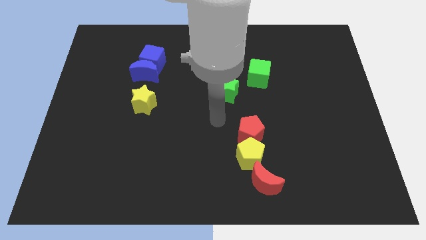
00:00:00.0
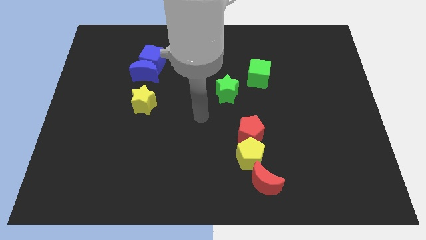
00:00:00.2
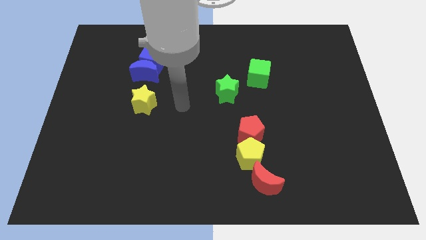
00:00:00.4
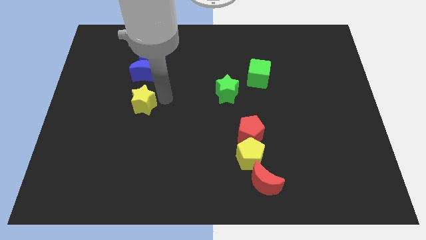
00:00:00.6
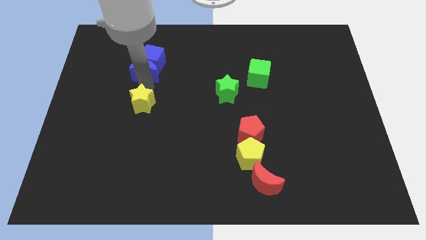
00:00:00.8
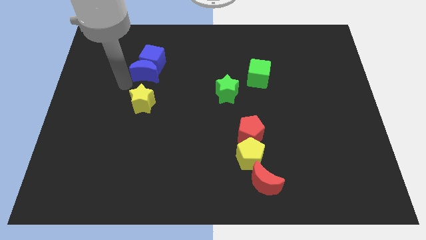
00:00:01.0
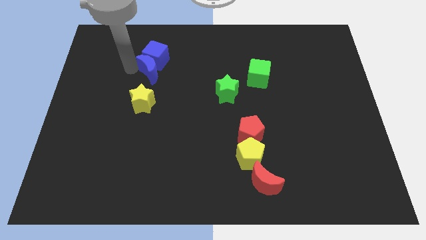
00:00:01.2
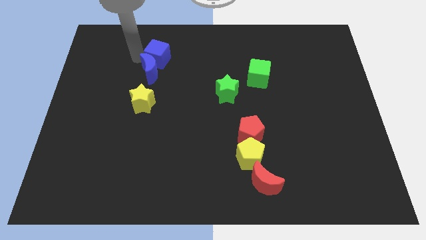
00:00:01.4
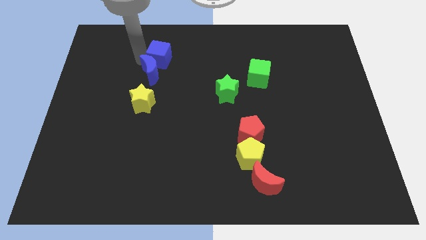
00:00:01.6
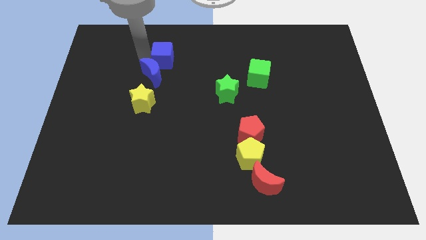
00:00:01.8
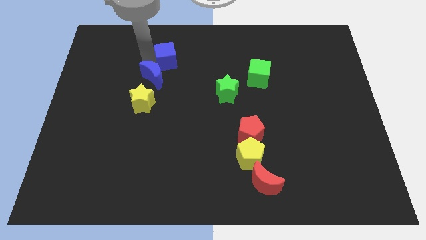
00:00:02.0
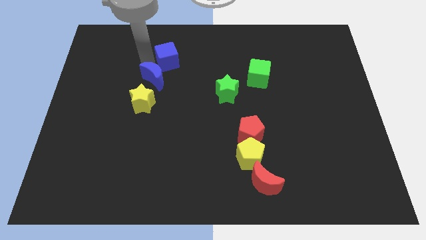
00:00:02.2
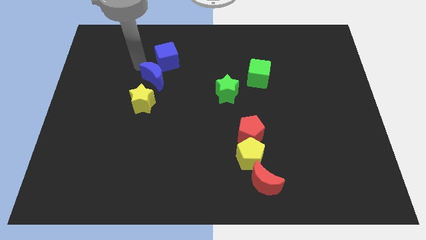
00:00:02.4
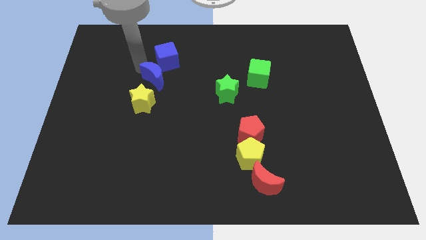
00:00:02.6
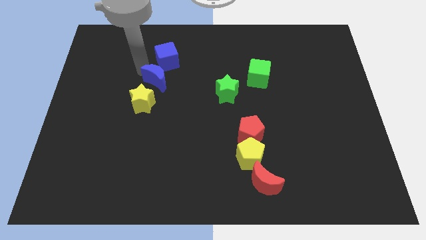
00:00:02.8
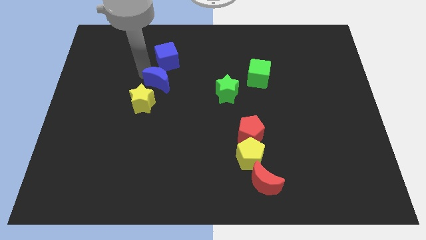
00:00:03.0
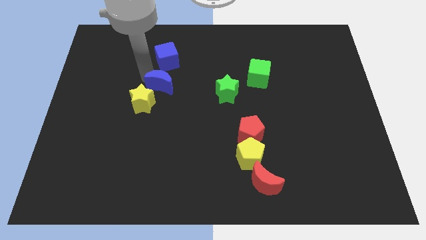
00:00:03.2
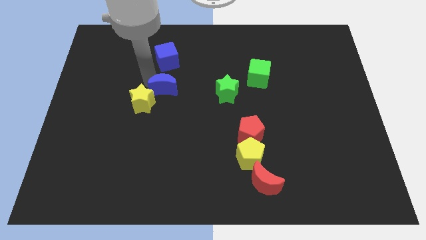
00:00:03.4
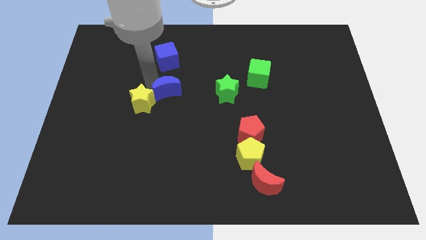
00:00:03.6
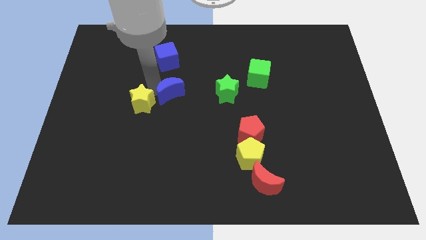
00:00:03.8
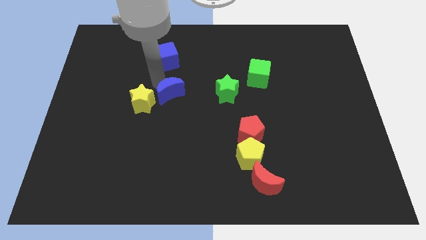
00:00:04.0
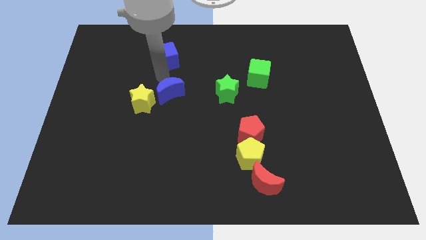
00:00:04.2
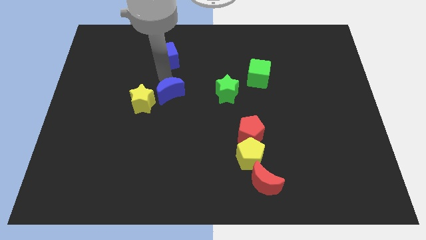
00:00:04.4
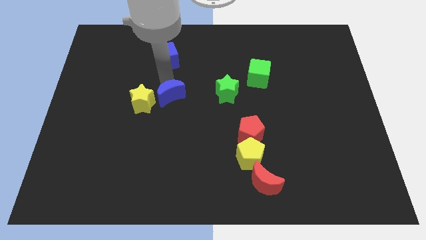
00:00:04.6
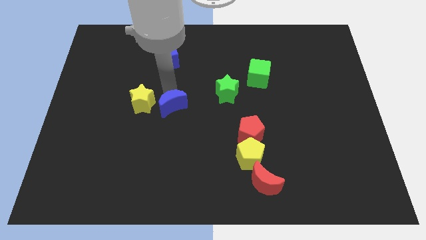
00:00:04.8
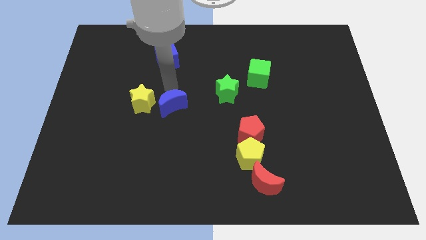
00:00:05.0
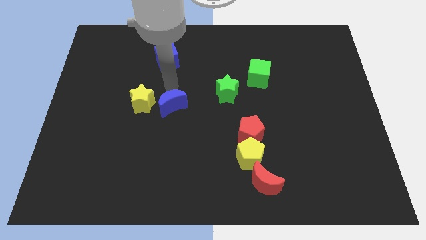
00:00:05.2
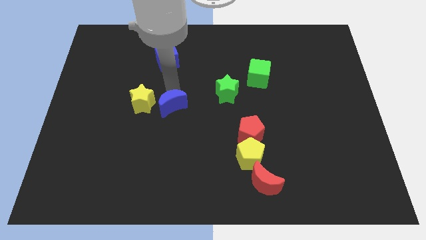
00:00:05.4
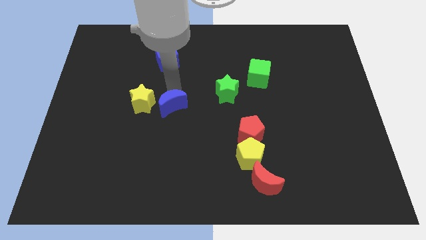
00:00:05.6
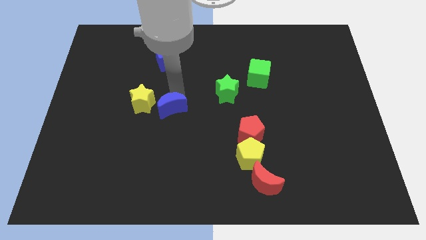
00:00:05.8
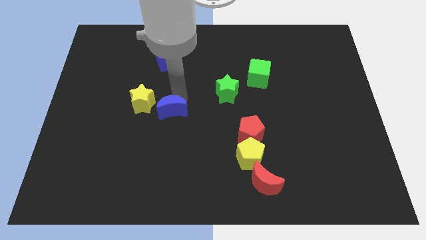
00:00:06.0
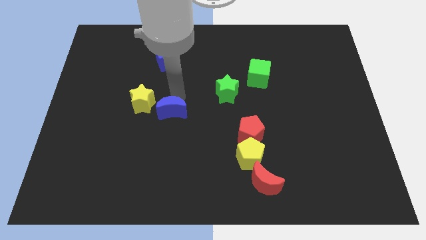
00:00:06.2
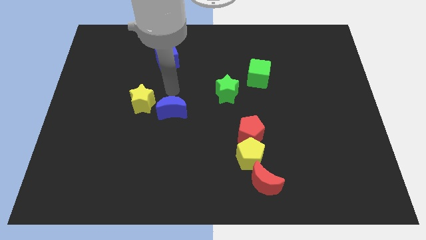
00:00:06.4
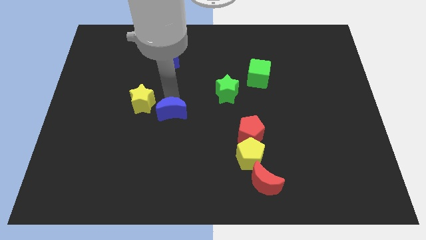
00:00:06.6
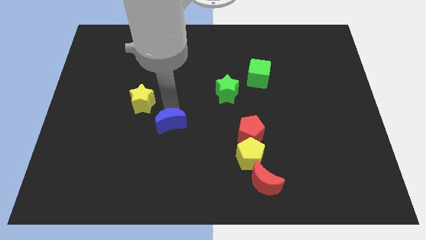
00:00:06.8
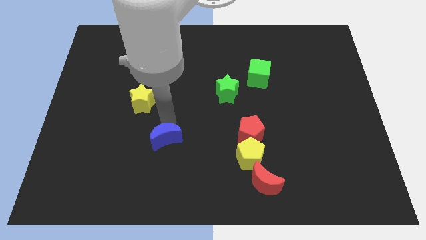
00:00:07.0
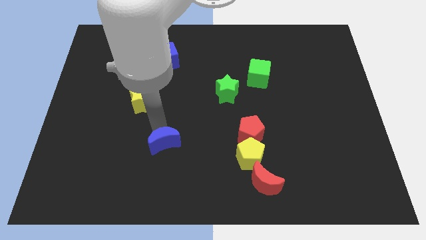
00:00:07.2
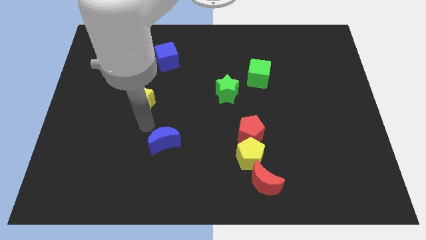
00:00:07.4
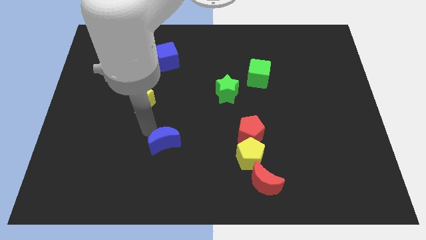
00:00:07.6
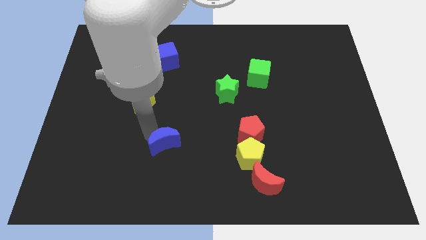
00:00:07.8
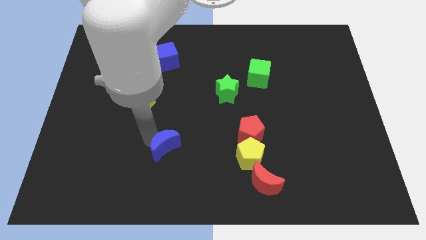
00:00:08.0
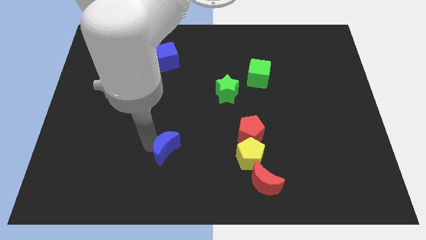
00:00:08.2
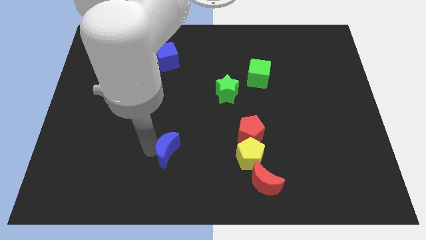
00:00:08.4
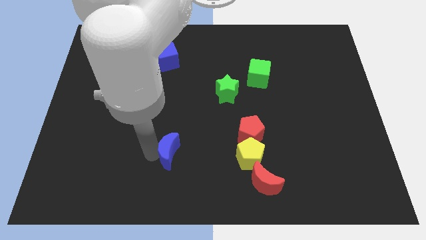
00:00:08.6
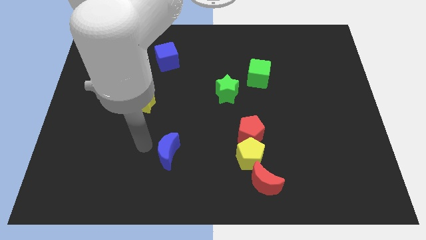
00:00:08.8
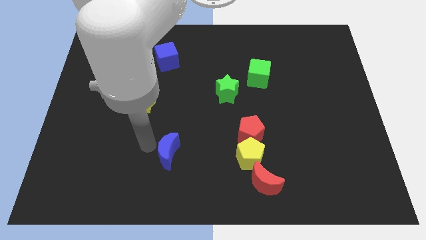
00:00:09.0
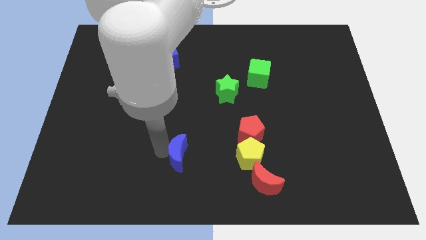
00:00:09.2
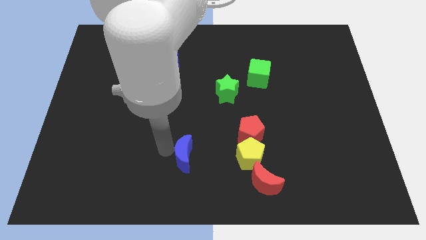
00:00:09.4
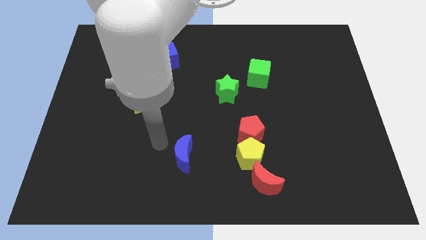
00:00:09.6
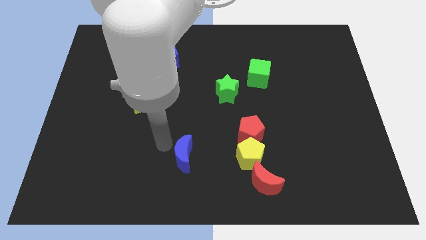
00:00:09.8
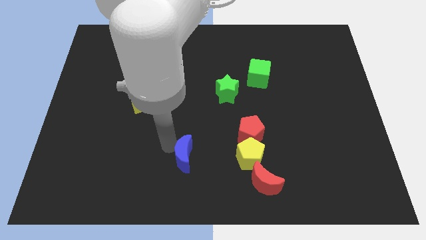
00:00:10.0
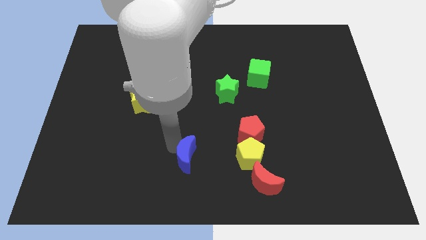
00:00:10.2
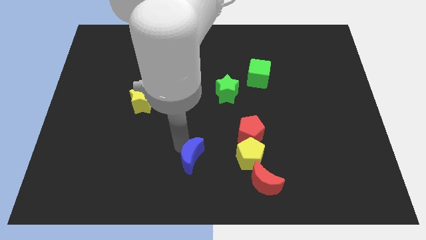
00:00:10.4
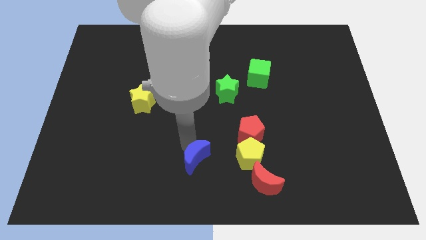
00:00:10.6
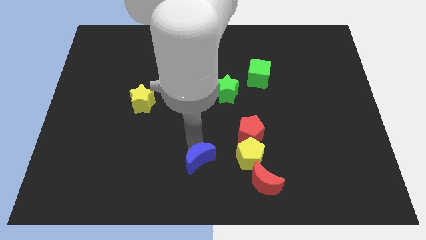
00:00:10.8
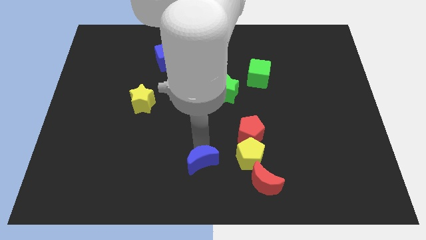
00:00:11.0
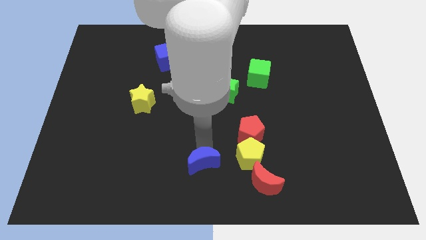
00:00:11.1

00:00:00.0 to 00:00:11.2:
move the blue moon just left of the red moon

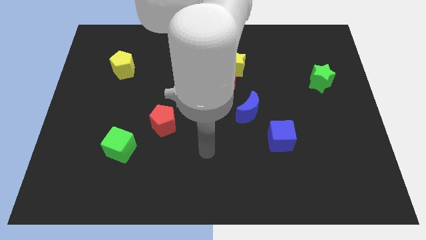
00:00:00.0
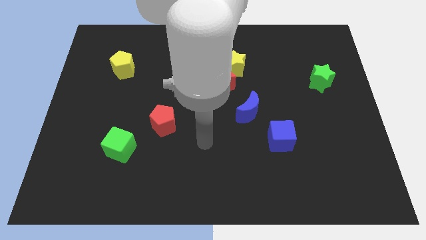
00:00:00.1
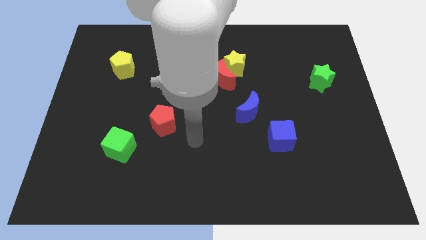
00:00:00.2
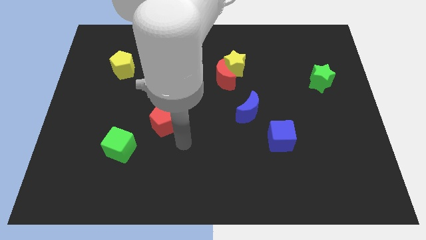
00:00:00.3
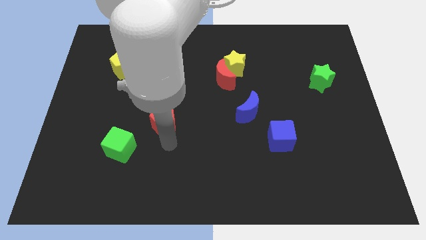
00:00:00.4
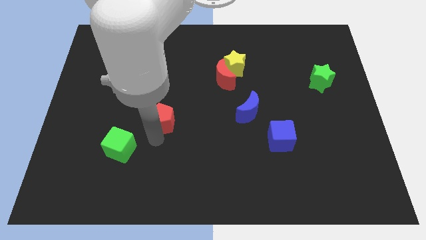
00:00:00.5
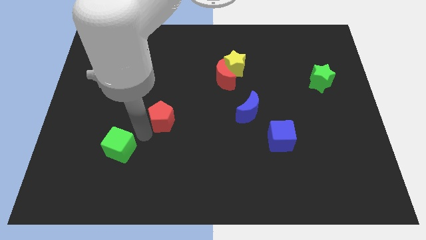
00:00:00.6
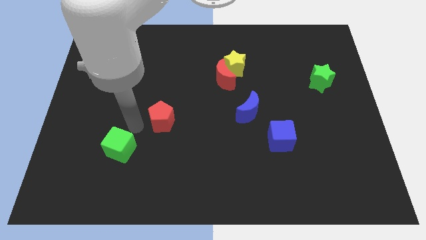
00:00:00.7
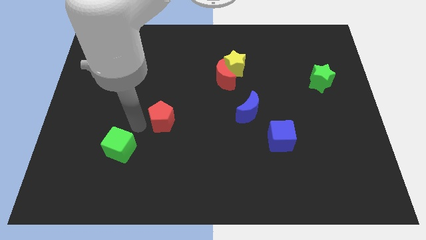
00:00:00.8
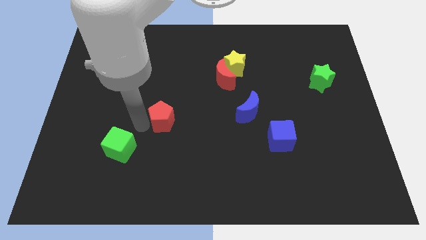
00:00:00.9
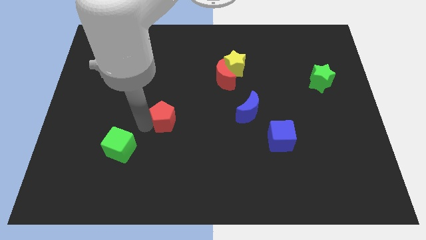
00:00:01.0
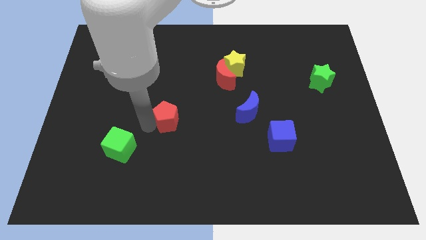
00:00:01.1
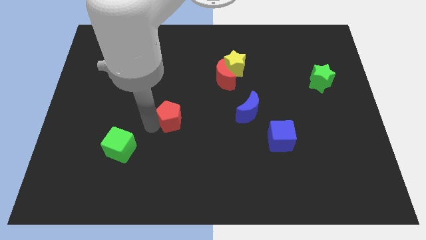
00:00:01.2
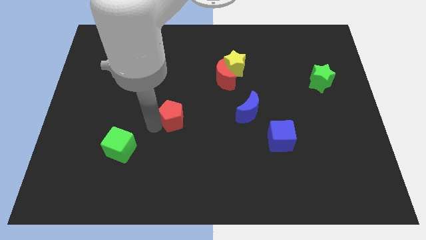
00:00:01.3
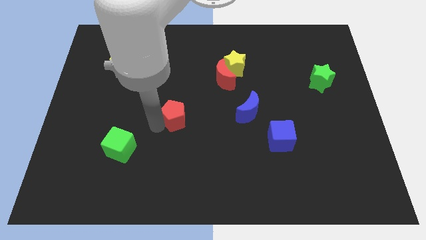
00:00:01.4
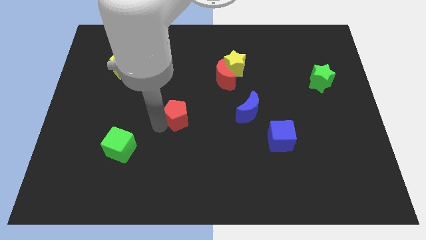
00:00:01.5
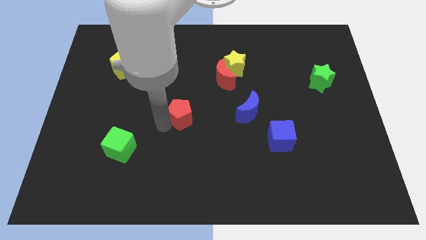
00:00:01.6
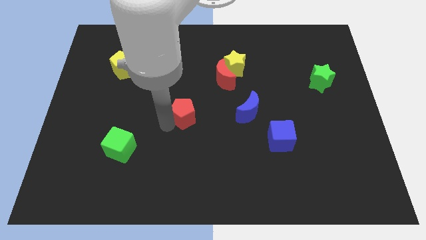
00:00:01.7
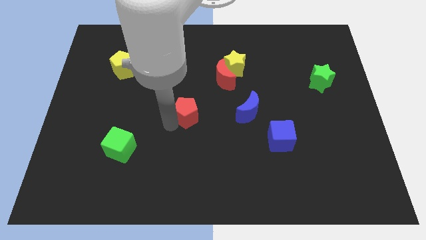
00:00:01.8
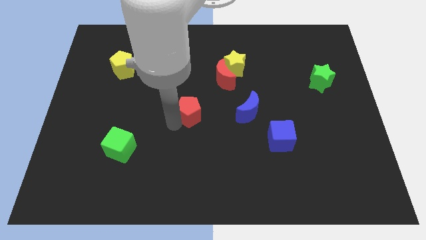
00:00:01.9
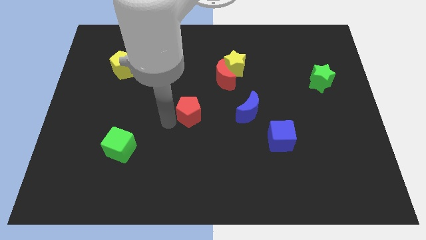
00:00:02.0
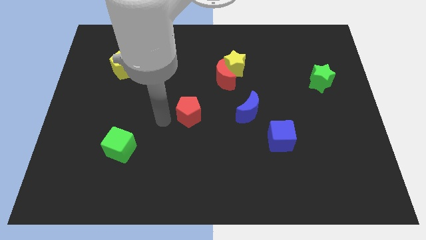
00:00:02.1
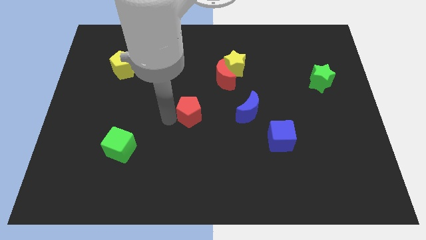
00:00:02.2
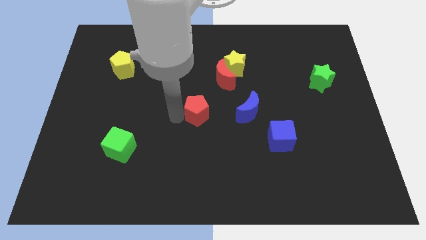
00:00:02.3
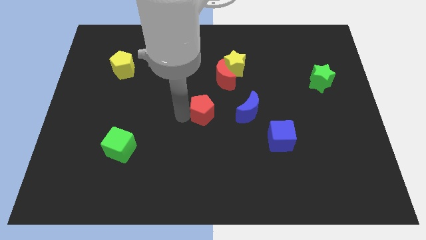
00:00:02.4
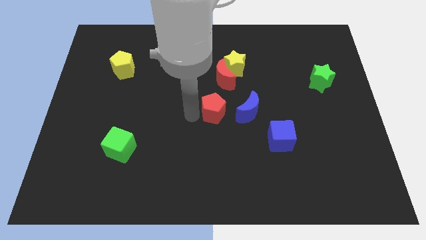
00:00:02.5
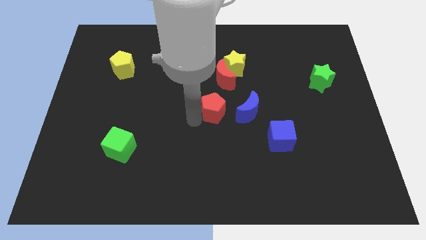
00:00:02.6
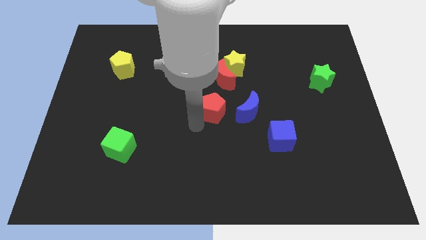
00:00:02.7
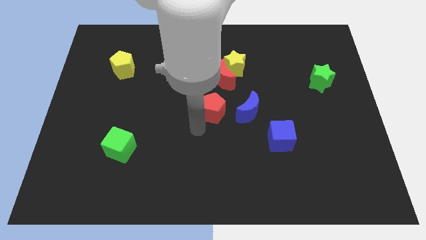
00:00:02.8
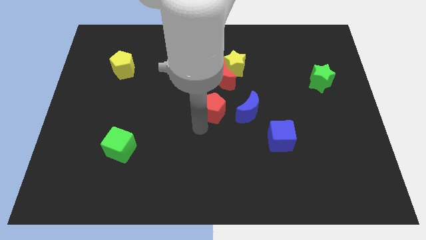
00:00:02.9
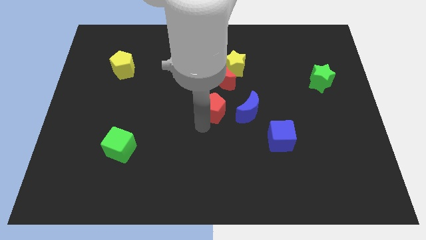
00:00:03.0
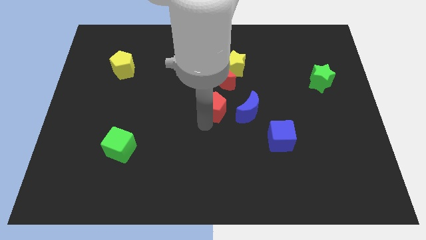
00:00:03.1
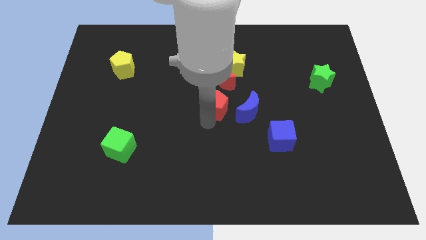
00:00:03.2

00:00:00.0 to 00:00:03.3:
put the red pentagon to the top left side of the blue moon
